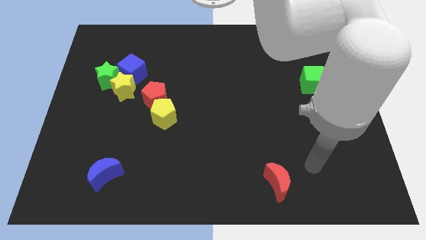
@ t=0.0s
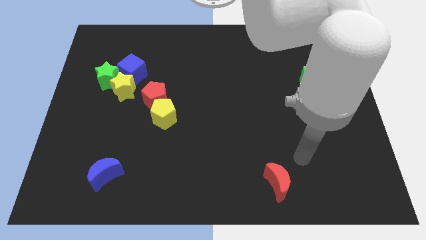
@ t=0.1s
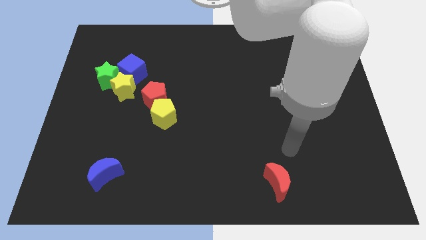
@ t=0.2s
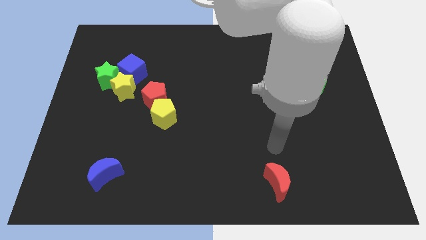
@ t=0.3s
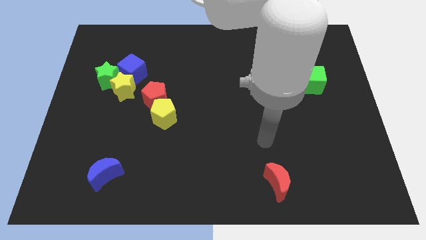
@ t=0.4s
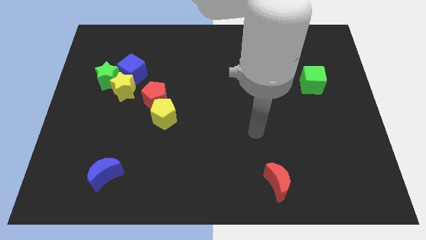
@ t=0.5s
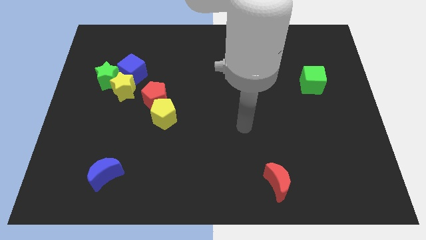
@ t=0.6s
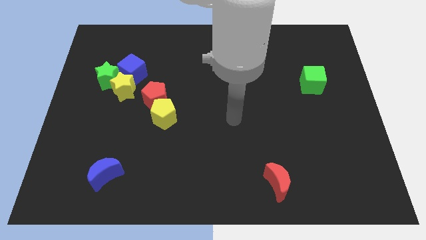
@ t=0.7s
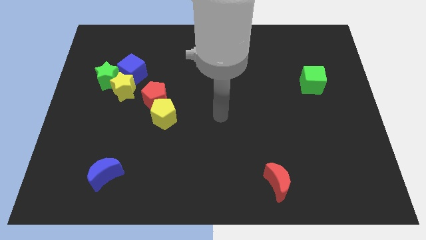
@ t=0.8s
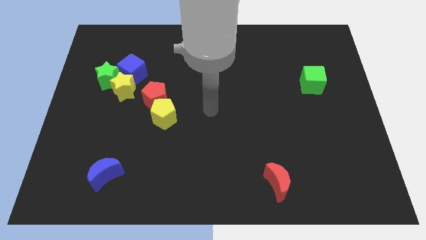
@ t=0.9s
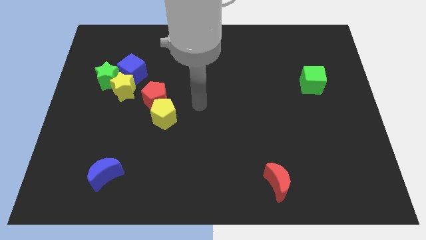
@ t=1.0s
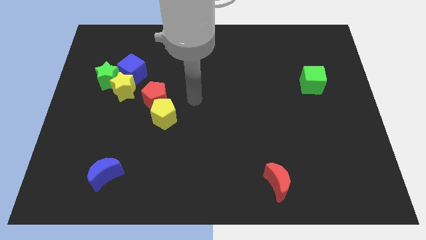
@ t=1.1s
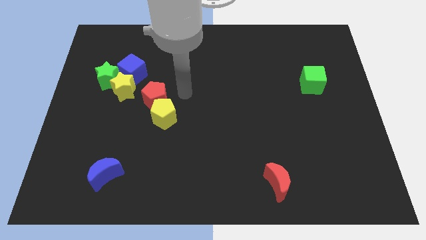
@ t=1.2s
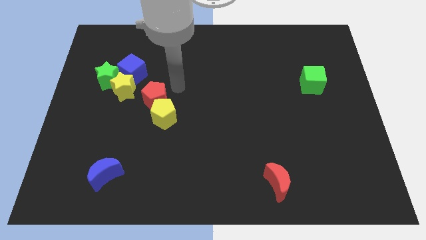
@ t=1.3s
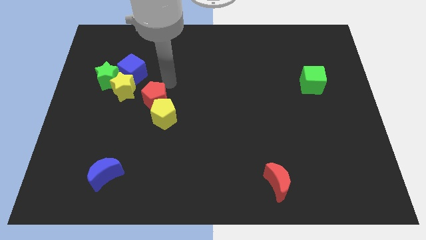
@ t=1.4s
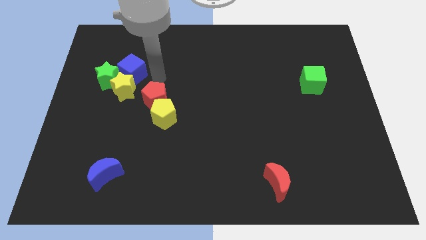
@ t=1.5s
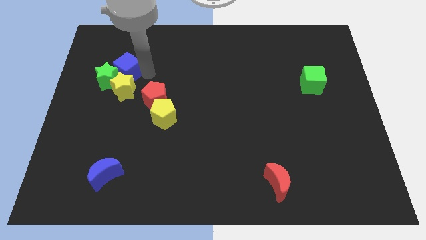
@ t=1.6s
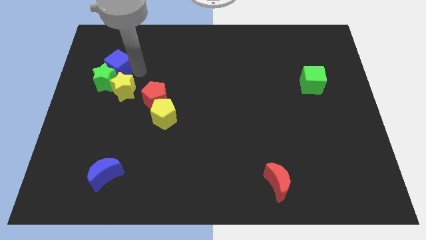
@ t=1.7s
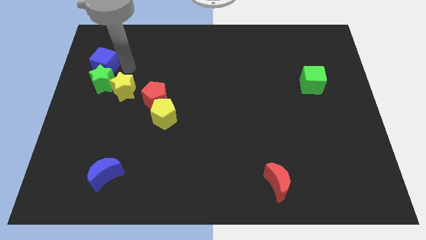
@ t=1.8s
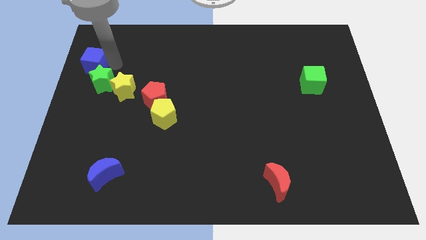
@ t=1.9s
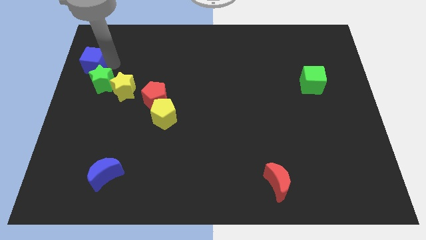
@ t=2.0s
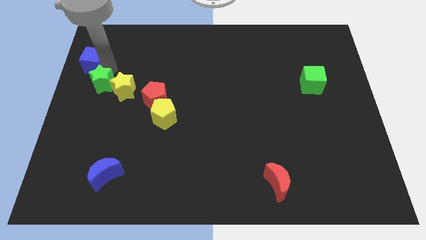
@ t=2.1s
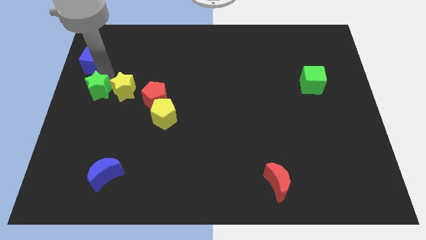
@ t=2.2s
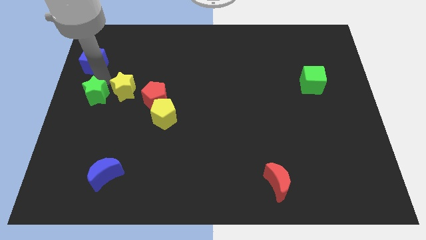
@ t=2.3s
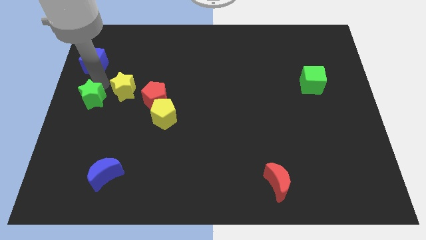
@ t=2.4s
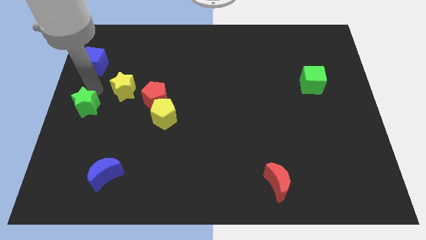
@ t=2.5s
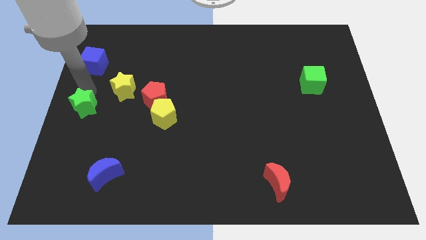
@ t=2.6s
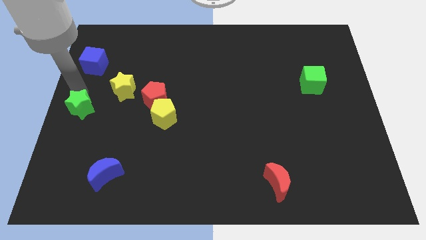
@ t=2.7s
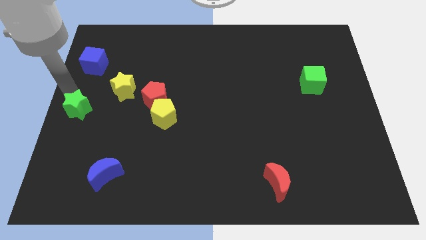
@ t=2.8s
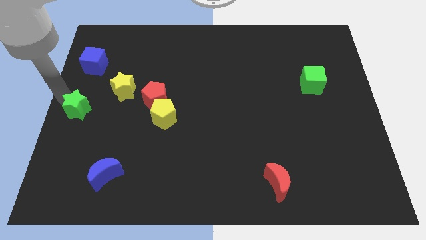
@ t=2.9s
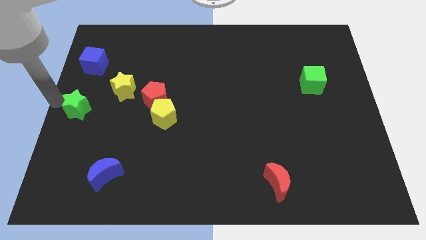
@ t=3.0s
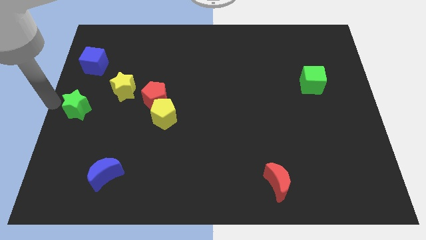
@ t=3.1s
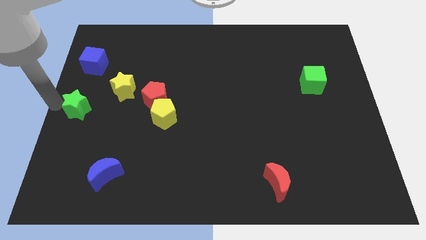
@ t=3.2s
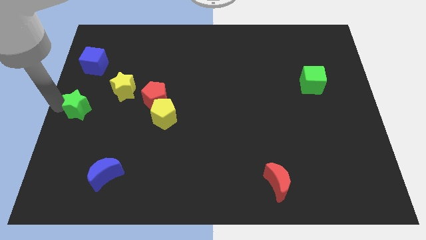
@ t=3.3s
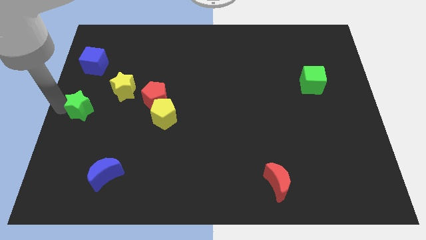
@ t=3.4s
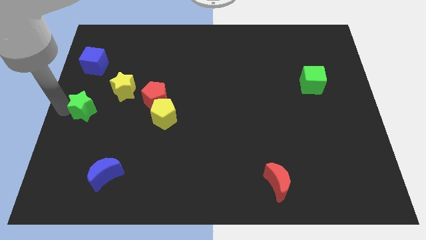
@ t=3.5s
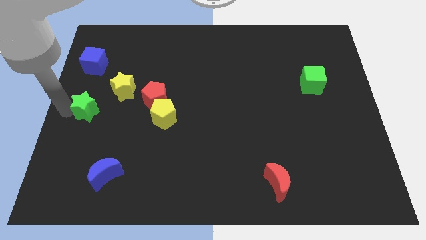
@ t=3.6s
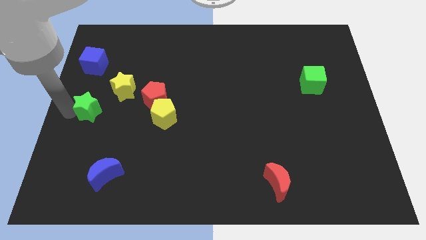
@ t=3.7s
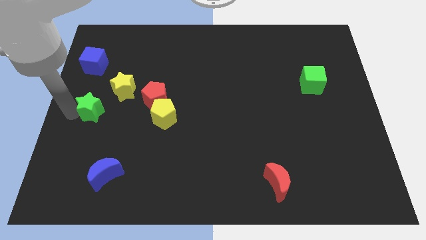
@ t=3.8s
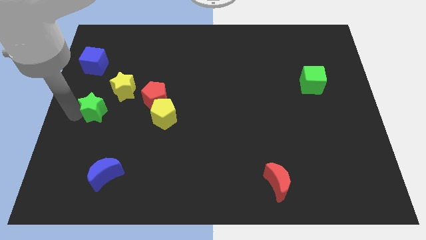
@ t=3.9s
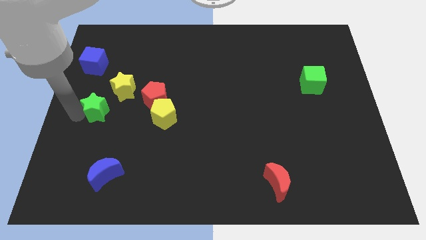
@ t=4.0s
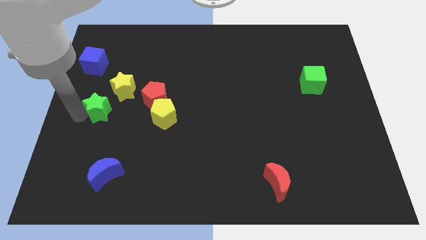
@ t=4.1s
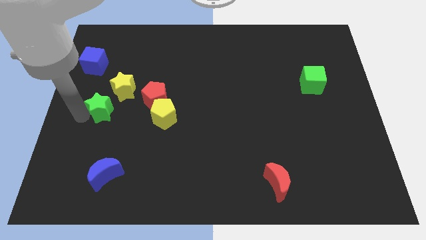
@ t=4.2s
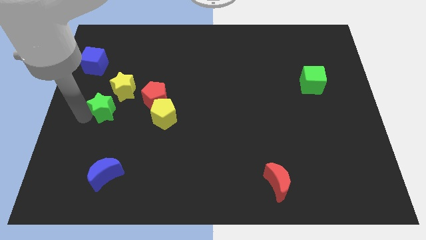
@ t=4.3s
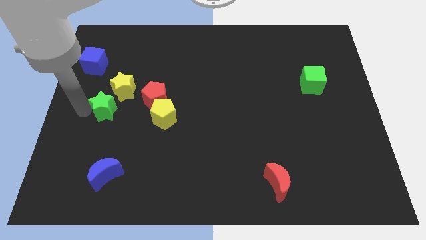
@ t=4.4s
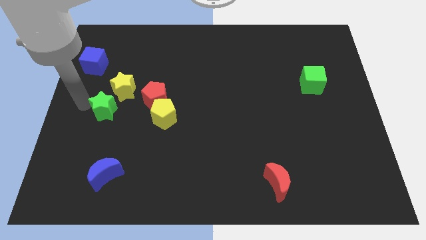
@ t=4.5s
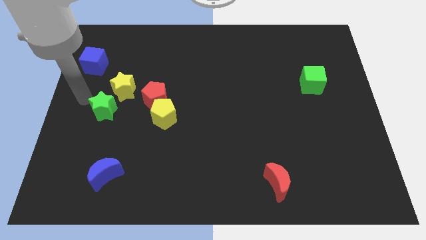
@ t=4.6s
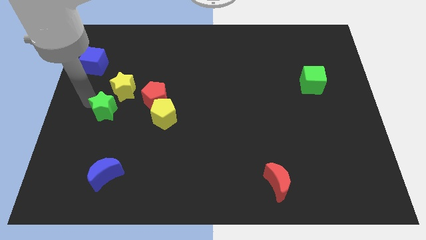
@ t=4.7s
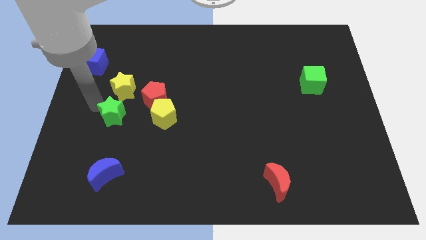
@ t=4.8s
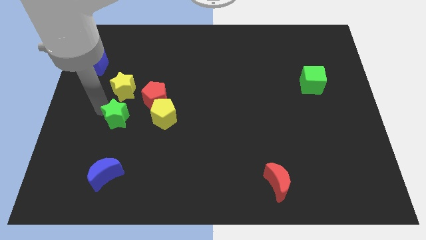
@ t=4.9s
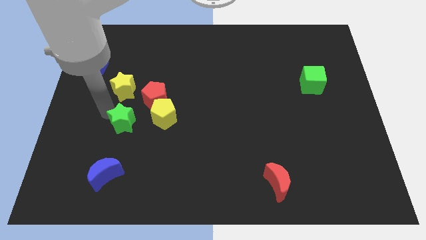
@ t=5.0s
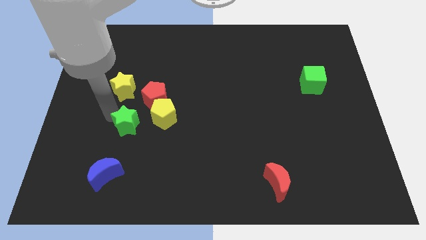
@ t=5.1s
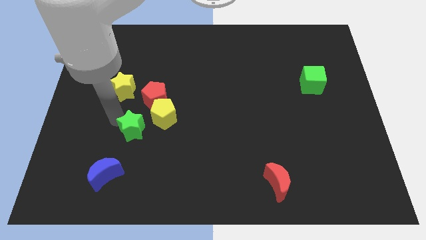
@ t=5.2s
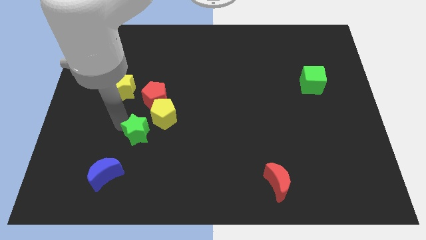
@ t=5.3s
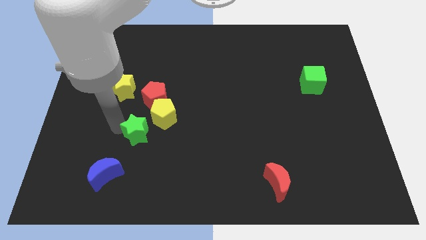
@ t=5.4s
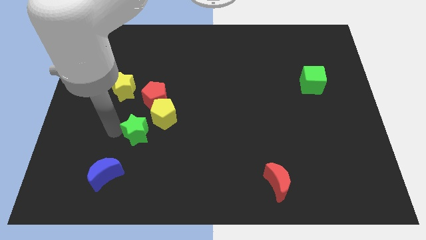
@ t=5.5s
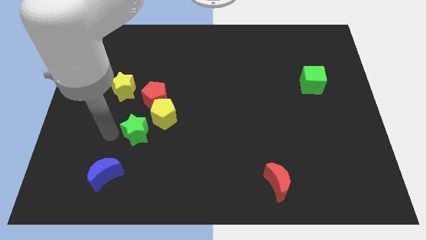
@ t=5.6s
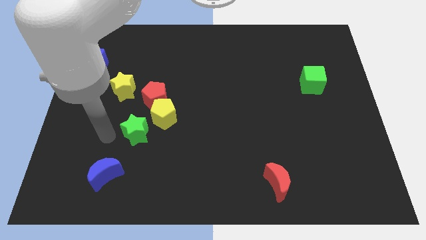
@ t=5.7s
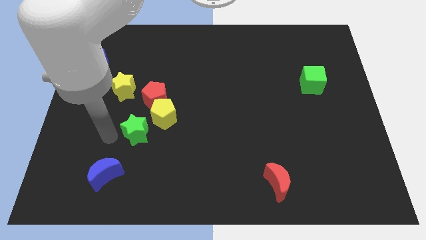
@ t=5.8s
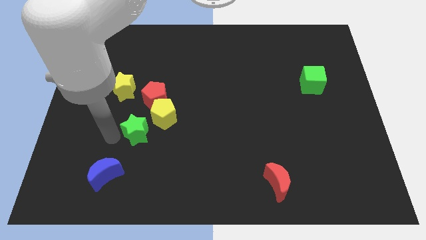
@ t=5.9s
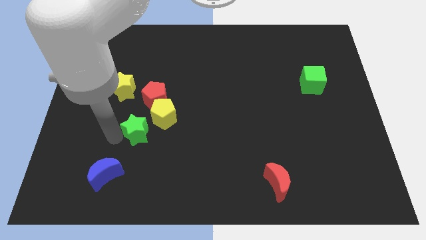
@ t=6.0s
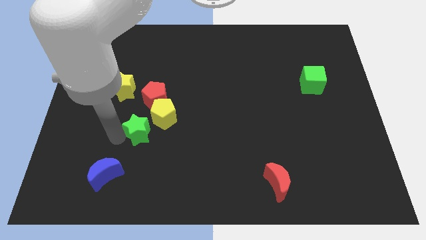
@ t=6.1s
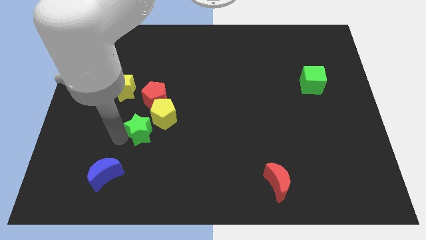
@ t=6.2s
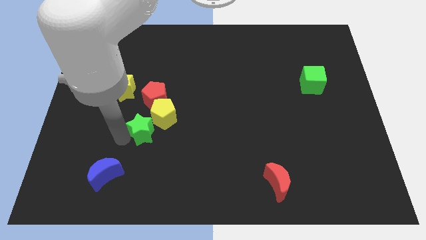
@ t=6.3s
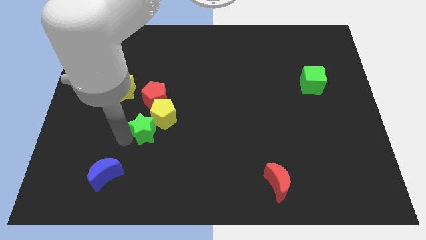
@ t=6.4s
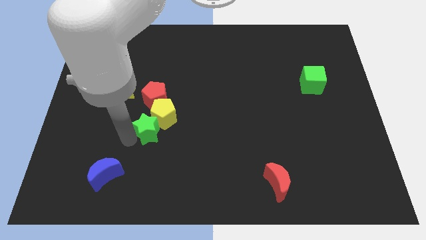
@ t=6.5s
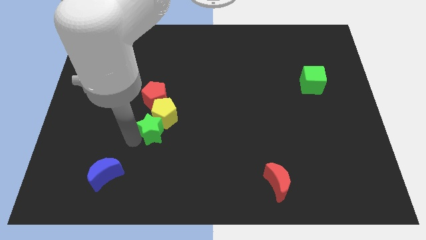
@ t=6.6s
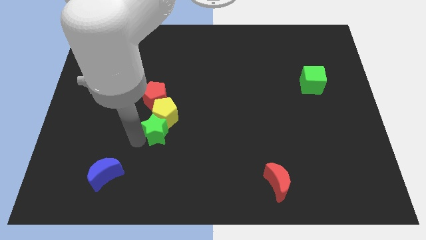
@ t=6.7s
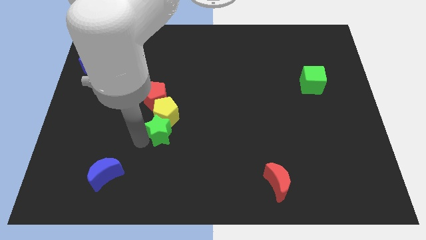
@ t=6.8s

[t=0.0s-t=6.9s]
put the green star diagonally down and to the right of the yellow pentagon

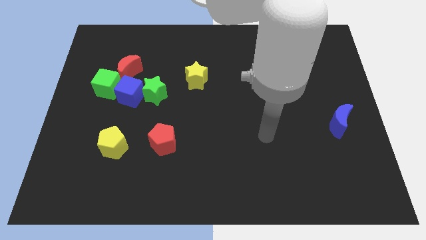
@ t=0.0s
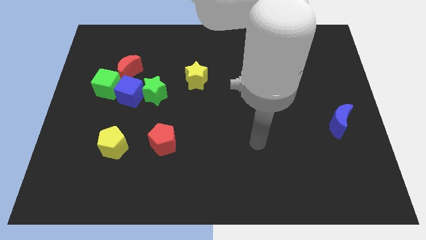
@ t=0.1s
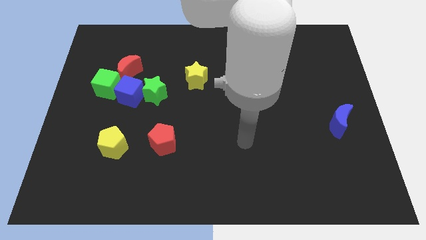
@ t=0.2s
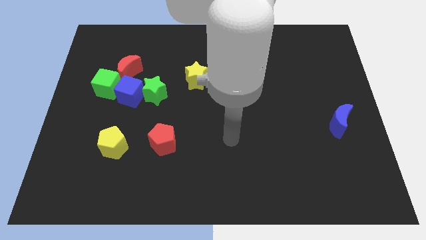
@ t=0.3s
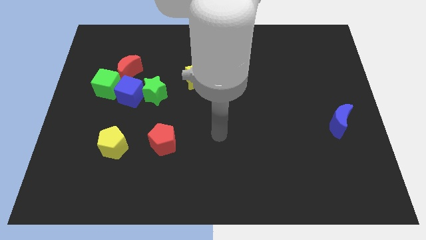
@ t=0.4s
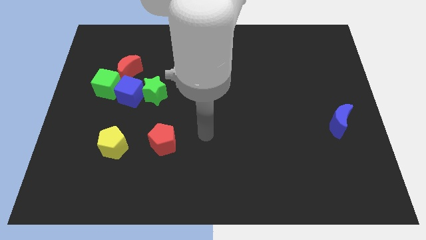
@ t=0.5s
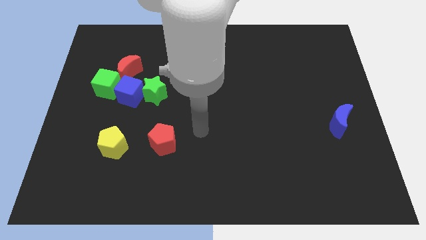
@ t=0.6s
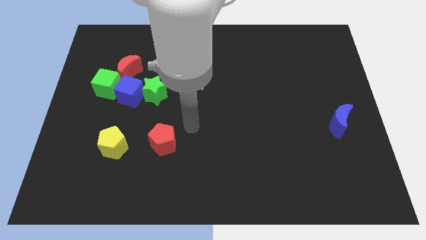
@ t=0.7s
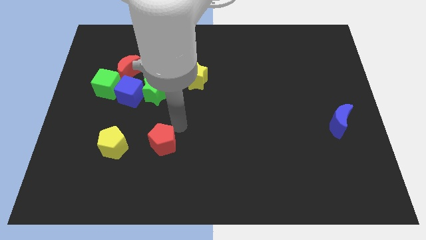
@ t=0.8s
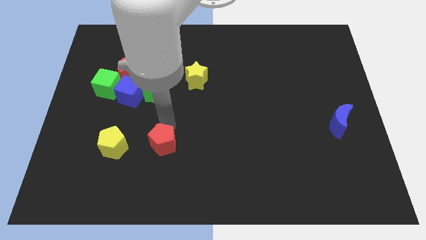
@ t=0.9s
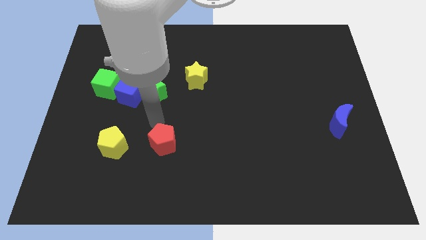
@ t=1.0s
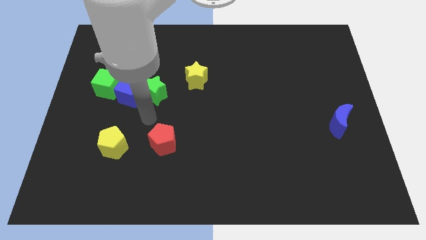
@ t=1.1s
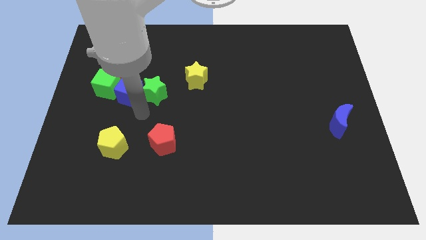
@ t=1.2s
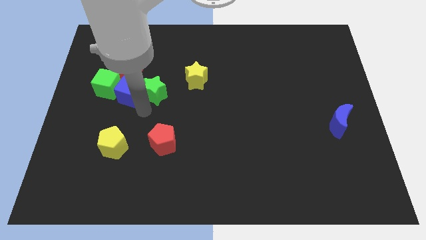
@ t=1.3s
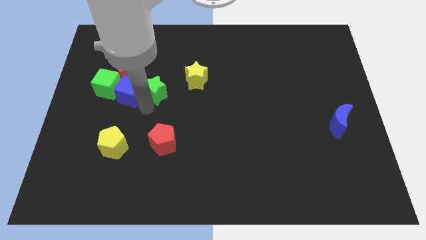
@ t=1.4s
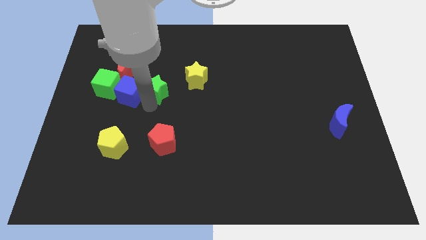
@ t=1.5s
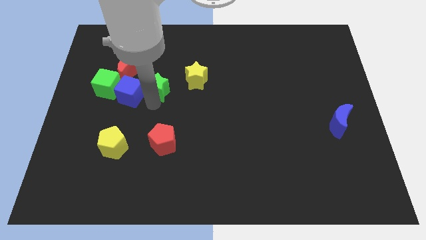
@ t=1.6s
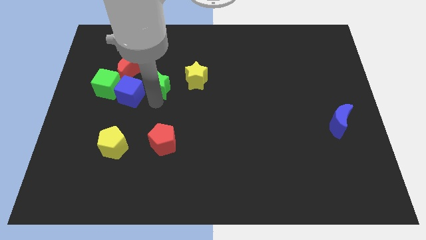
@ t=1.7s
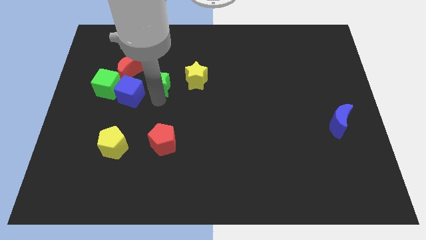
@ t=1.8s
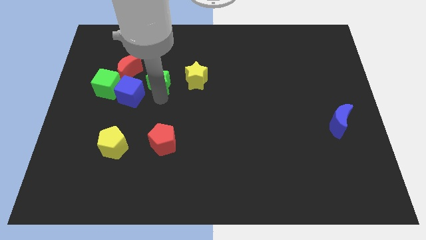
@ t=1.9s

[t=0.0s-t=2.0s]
slide the green star right of the red moon
